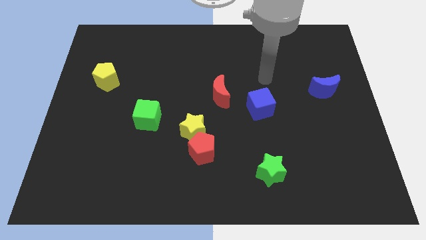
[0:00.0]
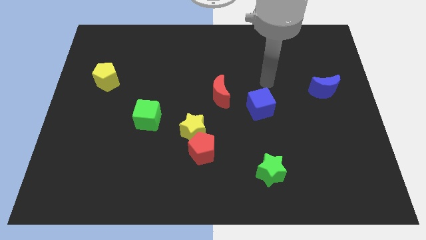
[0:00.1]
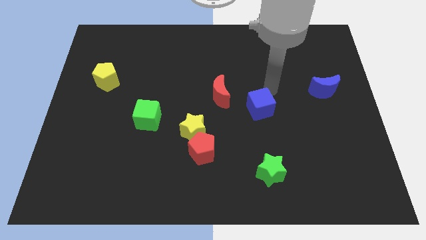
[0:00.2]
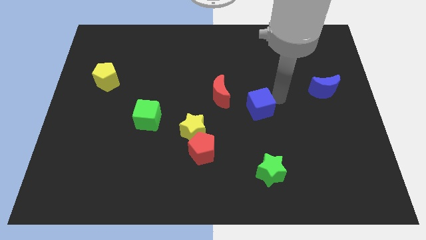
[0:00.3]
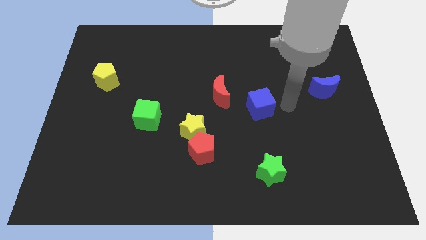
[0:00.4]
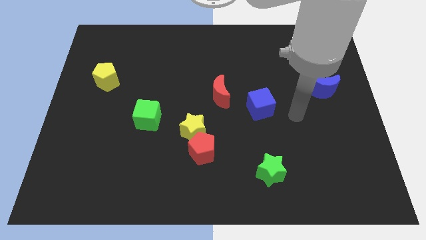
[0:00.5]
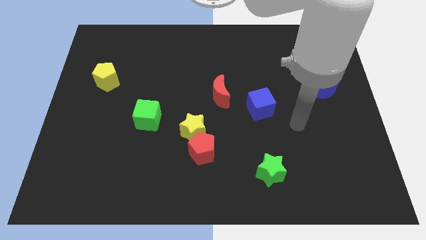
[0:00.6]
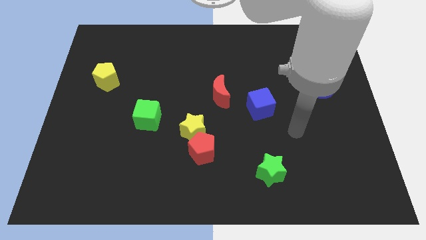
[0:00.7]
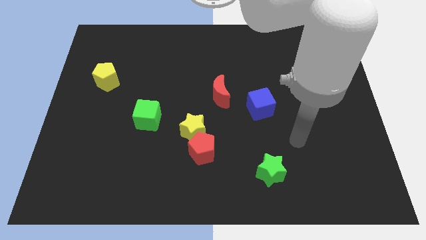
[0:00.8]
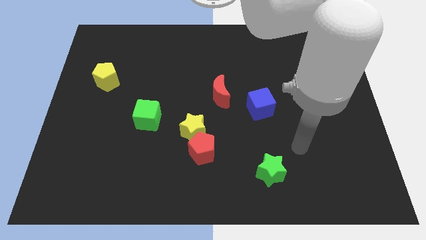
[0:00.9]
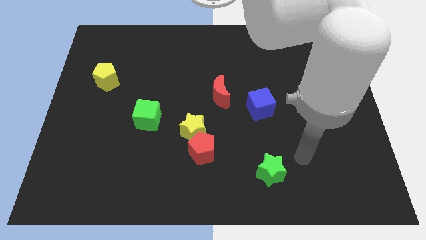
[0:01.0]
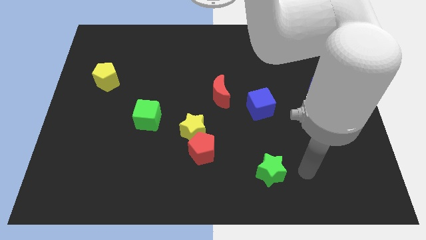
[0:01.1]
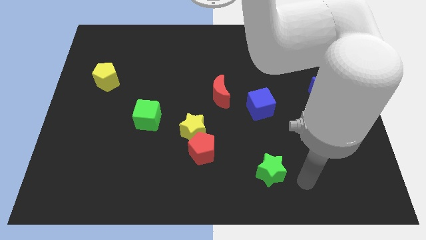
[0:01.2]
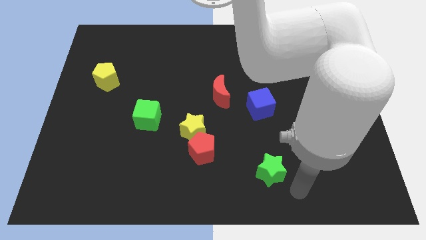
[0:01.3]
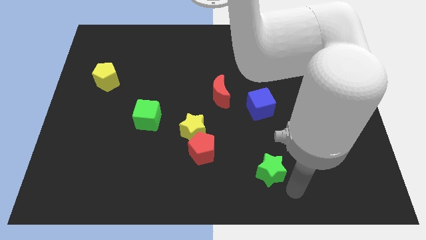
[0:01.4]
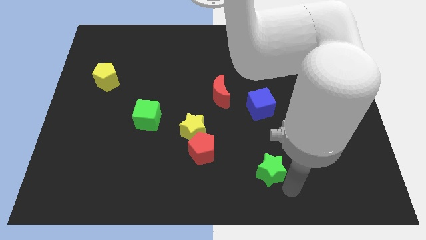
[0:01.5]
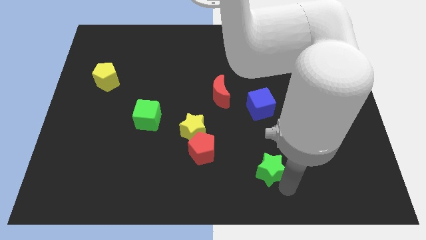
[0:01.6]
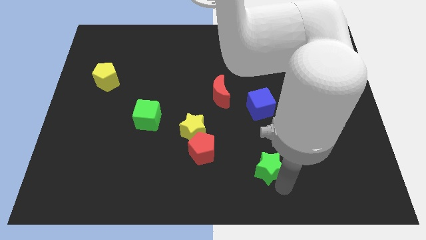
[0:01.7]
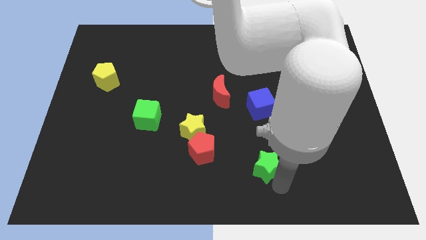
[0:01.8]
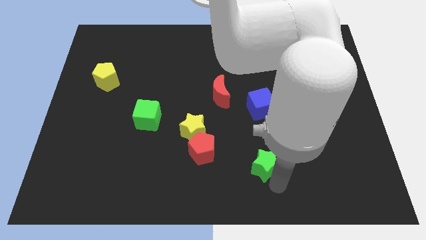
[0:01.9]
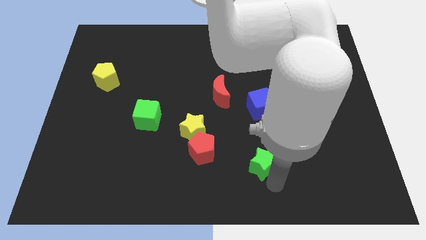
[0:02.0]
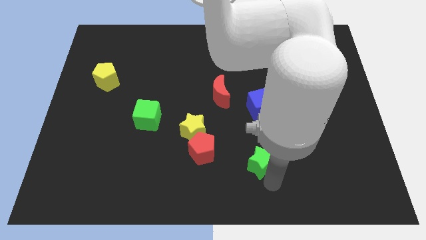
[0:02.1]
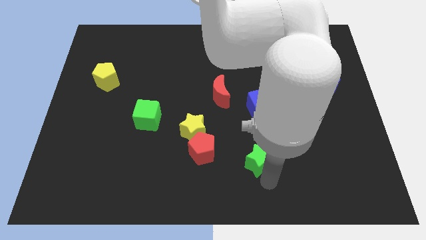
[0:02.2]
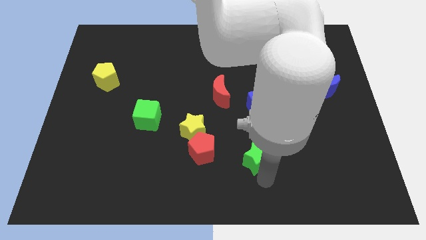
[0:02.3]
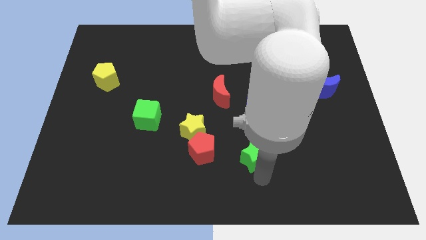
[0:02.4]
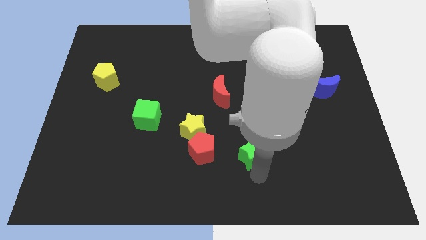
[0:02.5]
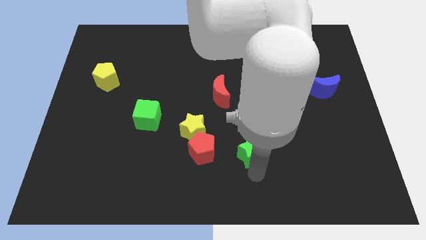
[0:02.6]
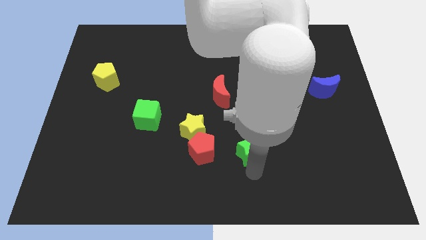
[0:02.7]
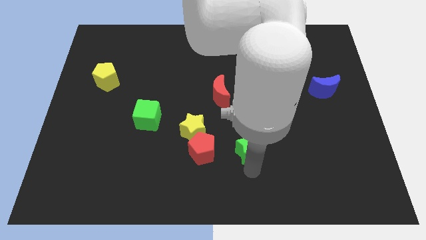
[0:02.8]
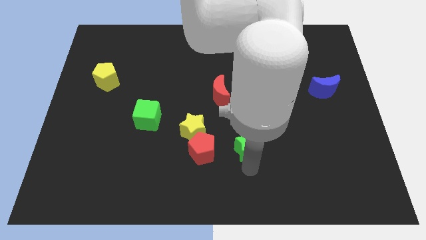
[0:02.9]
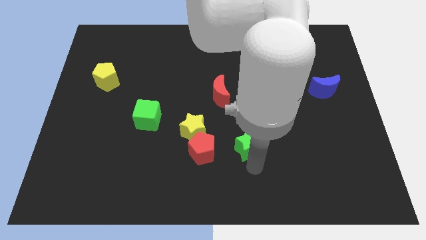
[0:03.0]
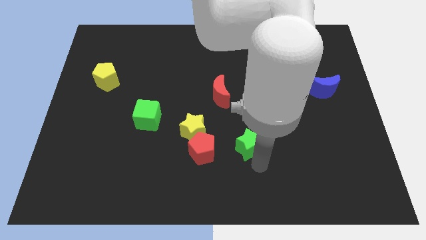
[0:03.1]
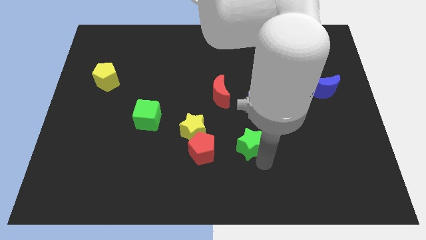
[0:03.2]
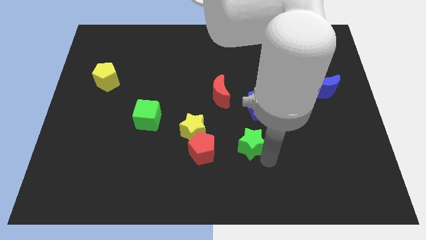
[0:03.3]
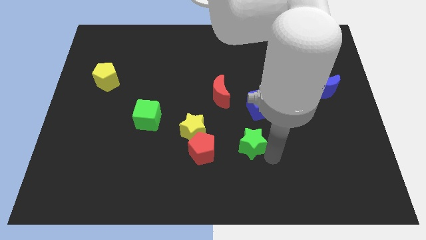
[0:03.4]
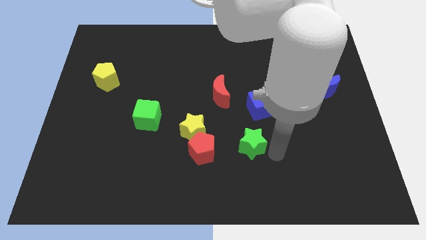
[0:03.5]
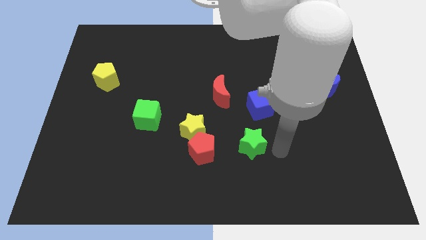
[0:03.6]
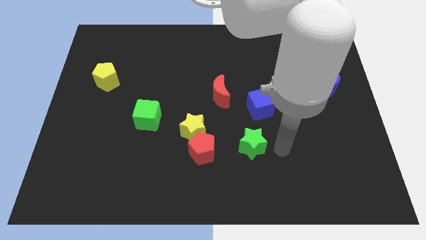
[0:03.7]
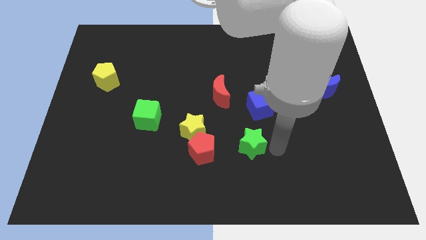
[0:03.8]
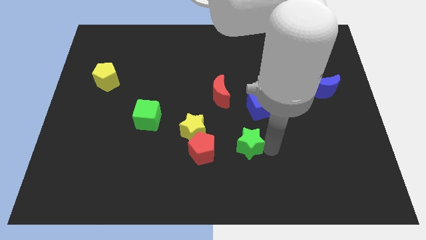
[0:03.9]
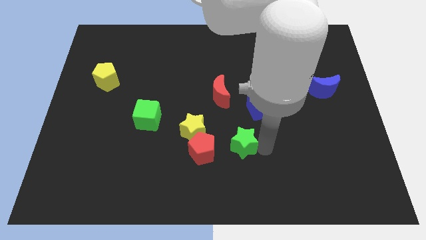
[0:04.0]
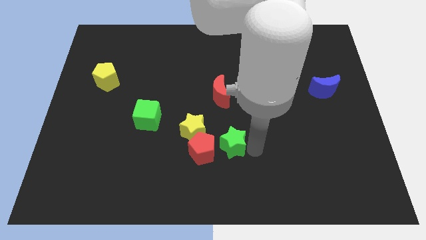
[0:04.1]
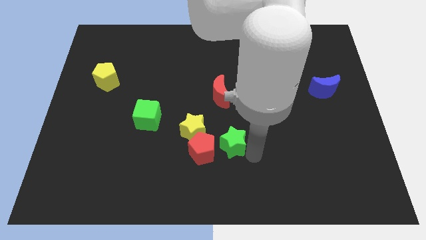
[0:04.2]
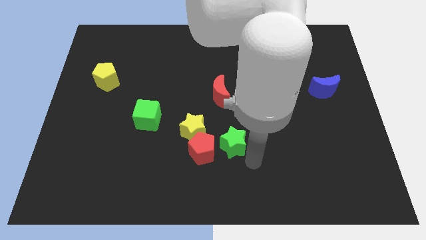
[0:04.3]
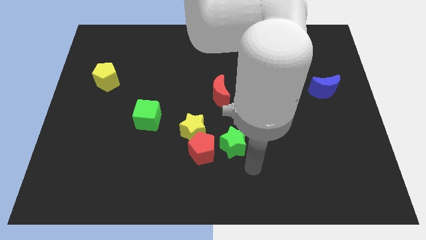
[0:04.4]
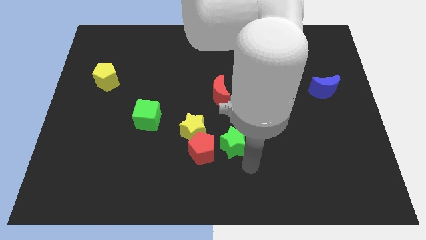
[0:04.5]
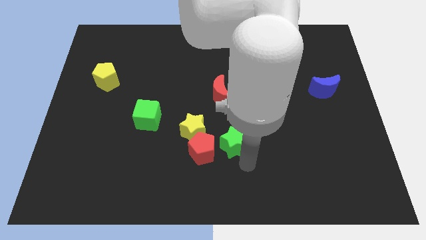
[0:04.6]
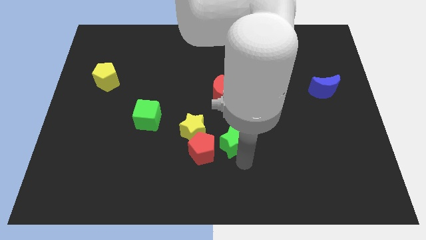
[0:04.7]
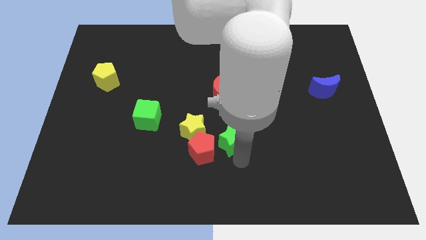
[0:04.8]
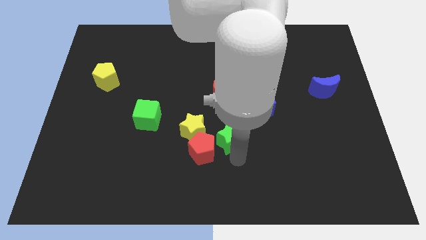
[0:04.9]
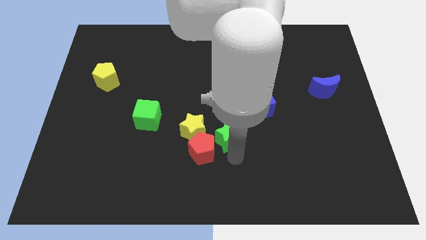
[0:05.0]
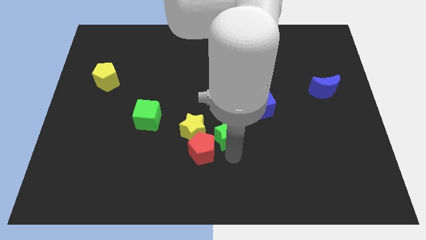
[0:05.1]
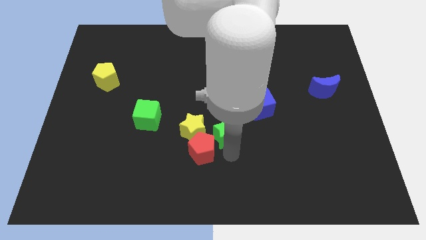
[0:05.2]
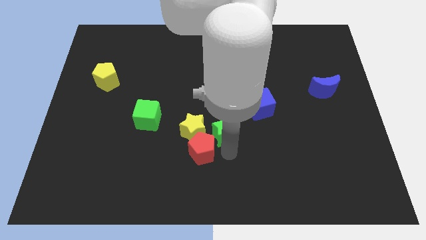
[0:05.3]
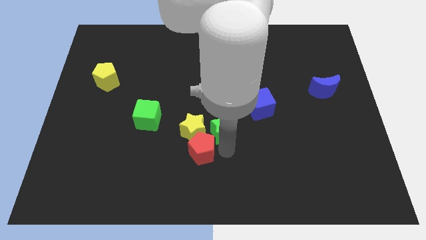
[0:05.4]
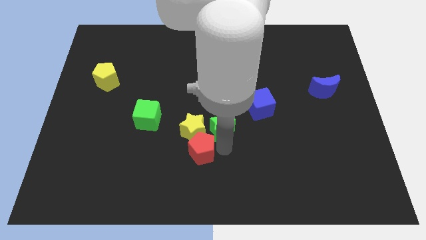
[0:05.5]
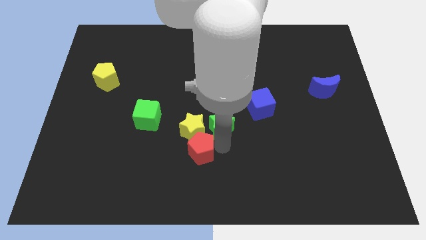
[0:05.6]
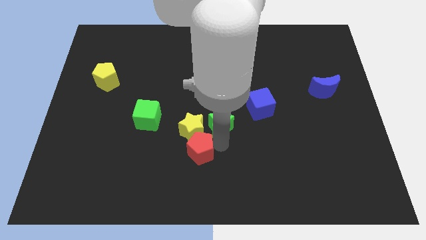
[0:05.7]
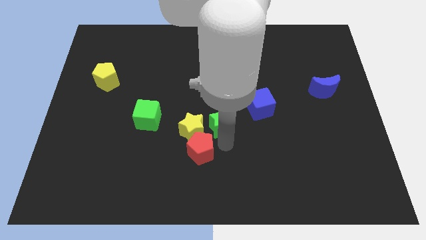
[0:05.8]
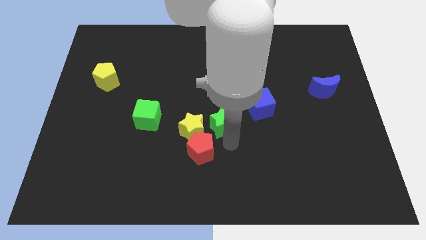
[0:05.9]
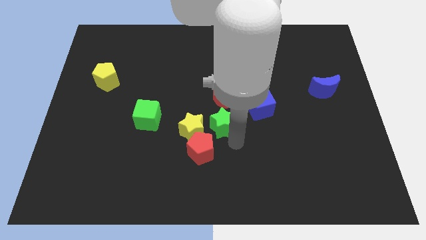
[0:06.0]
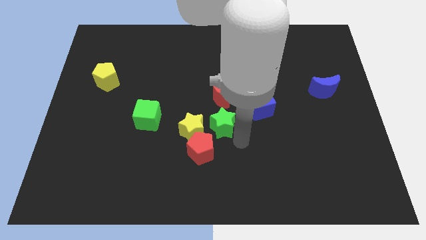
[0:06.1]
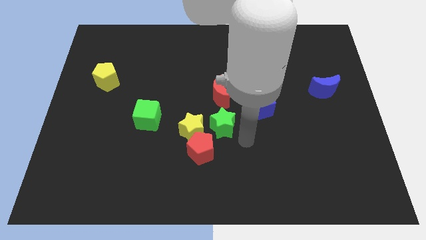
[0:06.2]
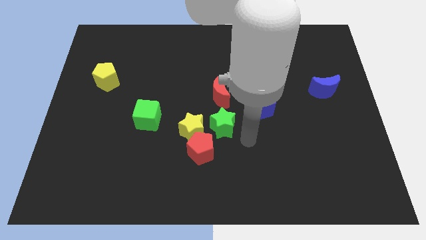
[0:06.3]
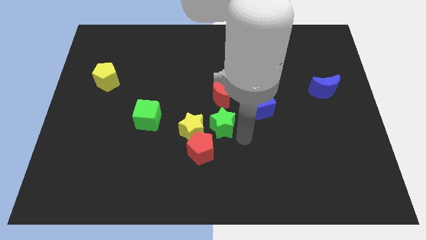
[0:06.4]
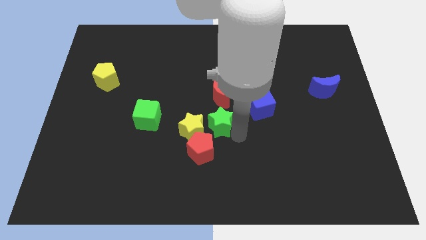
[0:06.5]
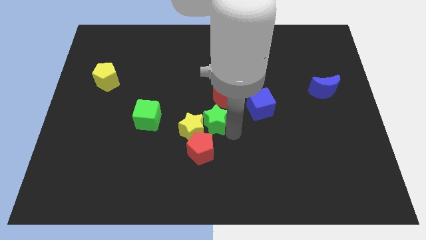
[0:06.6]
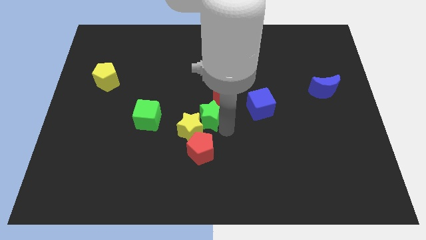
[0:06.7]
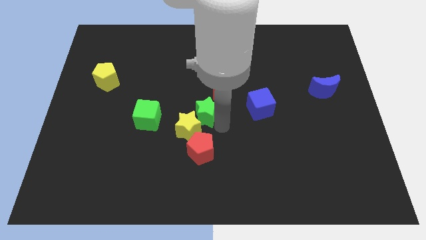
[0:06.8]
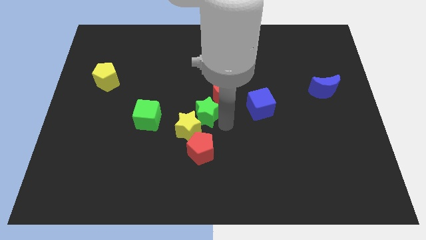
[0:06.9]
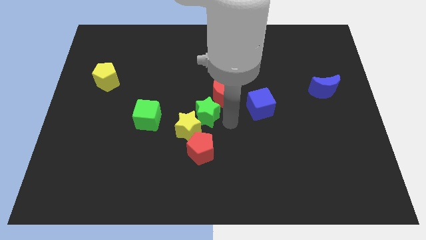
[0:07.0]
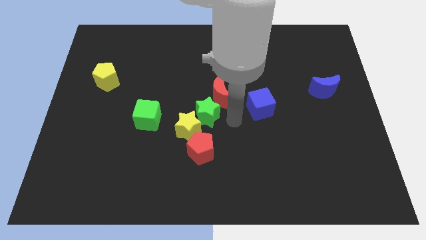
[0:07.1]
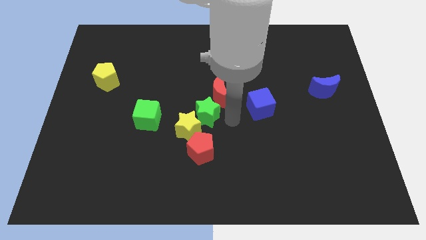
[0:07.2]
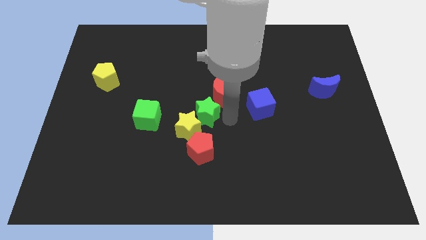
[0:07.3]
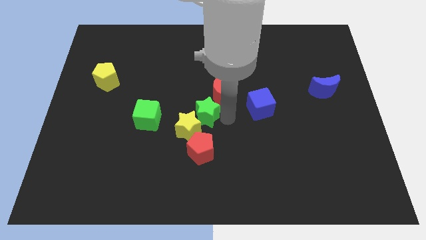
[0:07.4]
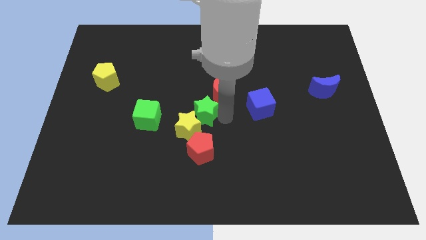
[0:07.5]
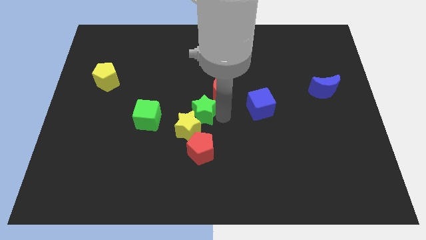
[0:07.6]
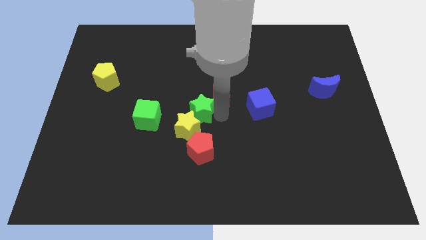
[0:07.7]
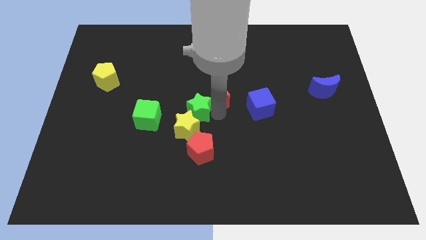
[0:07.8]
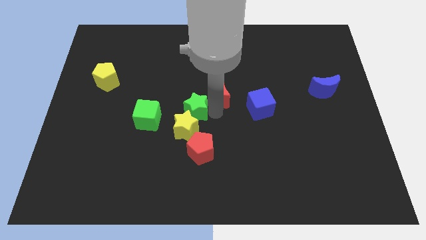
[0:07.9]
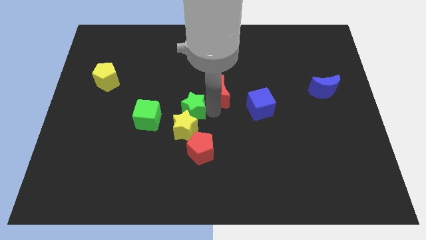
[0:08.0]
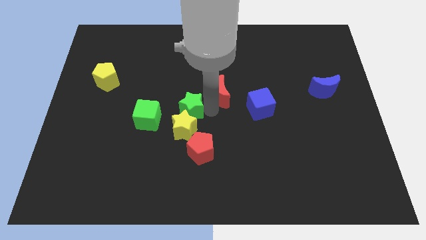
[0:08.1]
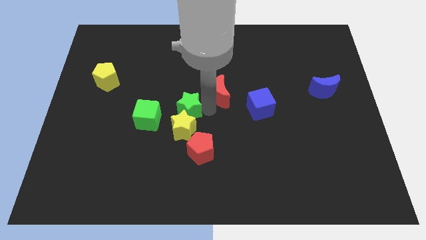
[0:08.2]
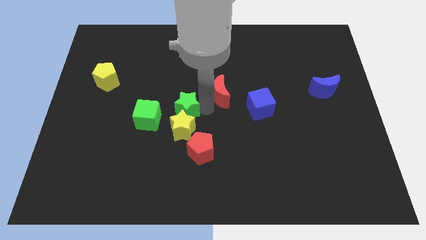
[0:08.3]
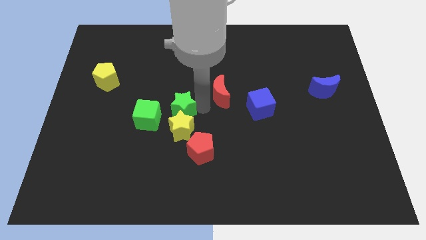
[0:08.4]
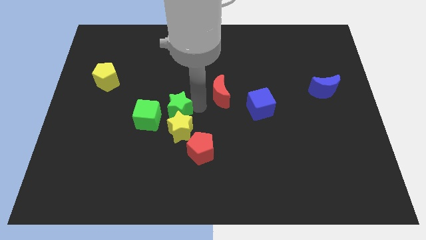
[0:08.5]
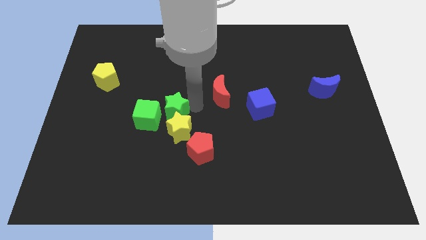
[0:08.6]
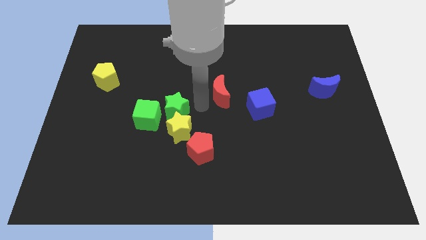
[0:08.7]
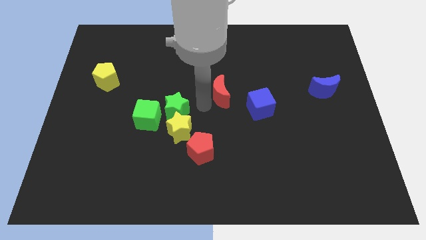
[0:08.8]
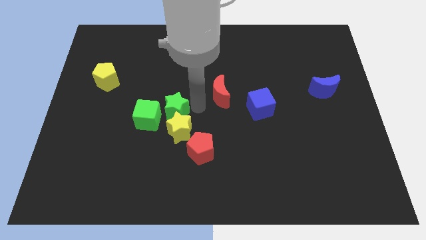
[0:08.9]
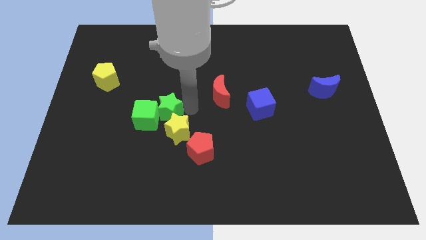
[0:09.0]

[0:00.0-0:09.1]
put the green star next to the green cube
